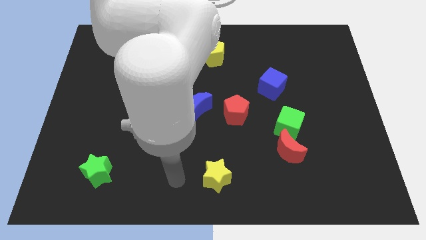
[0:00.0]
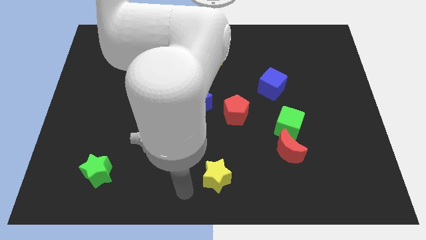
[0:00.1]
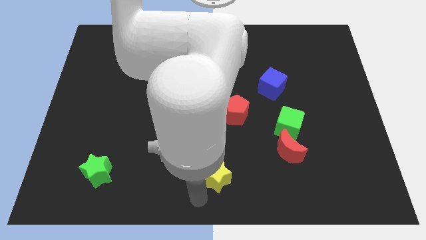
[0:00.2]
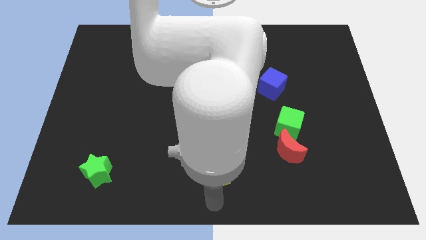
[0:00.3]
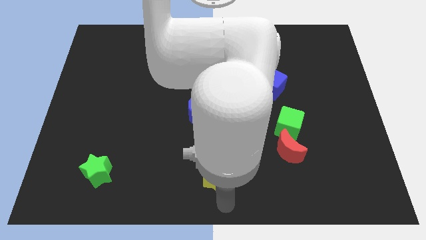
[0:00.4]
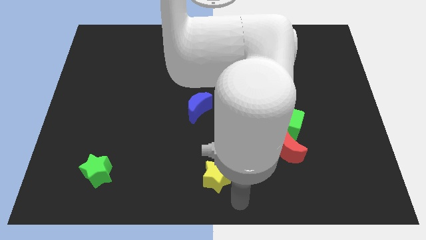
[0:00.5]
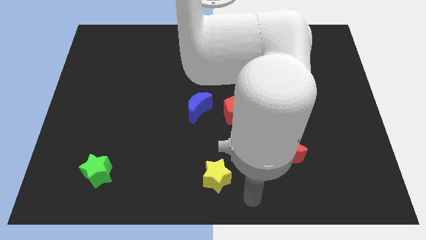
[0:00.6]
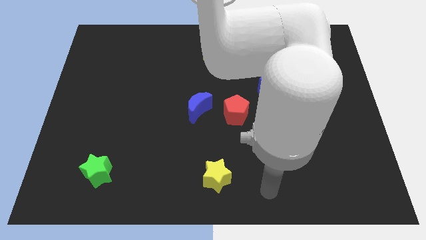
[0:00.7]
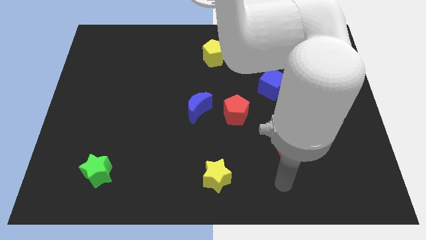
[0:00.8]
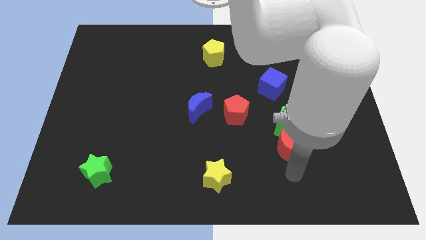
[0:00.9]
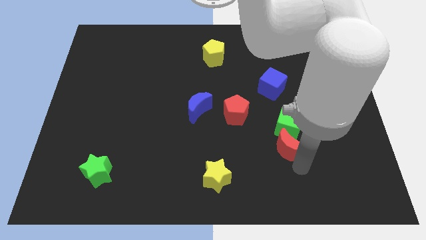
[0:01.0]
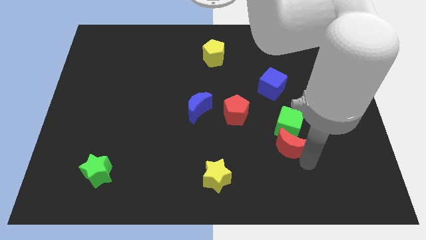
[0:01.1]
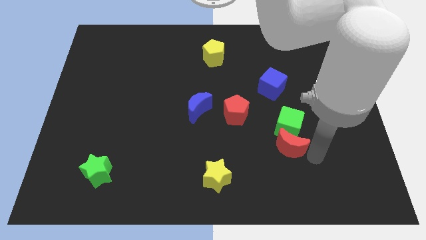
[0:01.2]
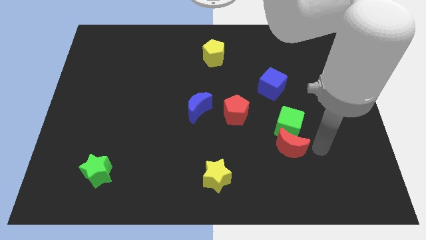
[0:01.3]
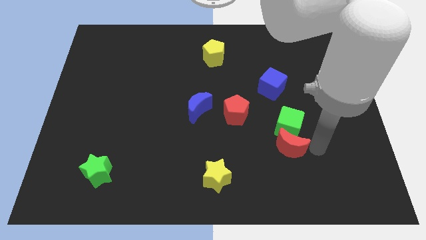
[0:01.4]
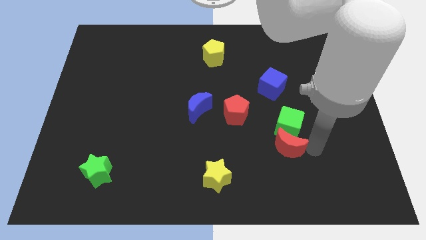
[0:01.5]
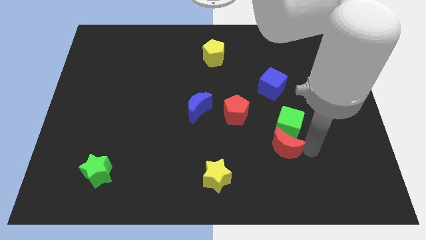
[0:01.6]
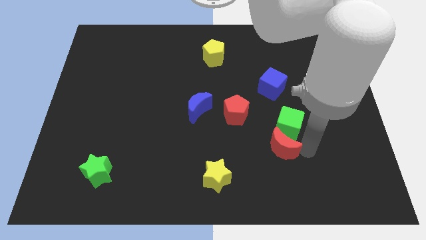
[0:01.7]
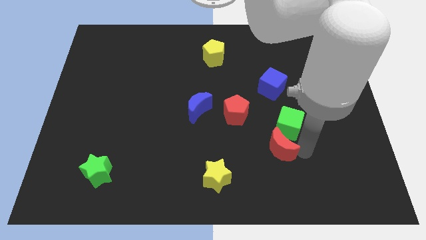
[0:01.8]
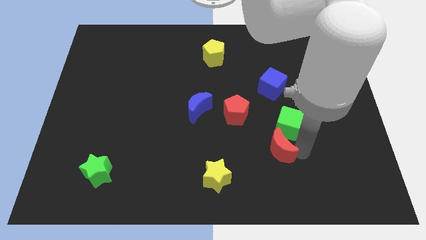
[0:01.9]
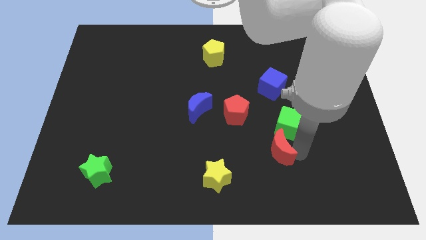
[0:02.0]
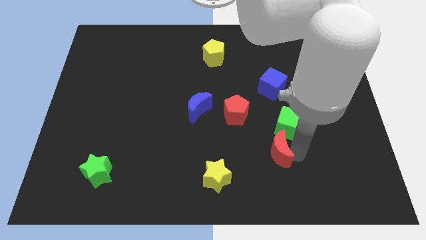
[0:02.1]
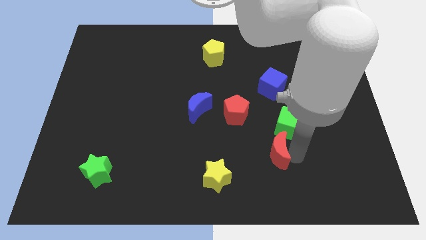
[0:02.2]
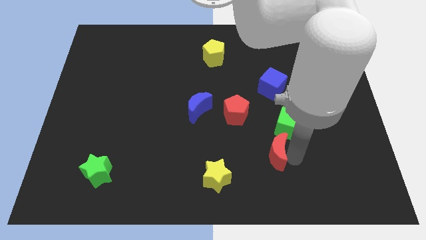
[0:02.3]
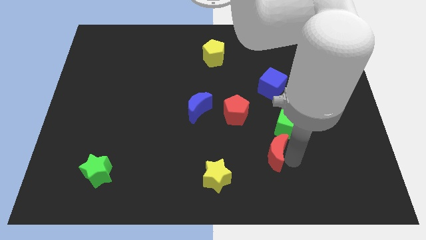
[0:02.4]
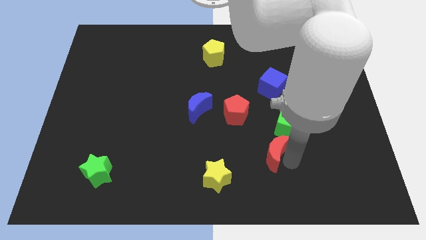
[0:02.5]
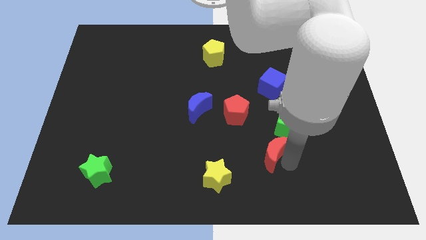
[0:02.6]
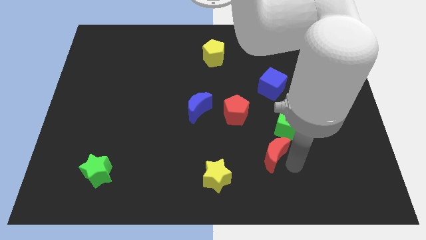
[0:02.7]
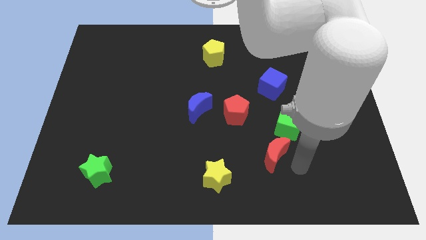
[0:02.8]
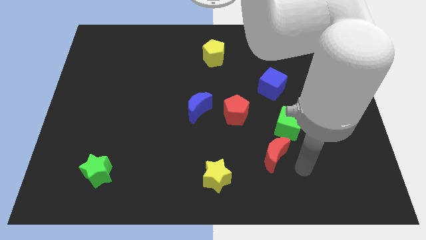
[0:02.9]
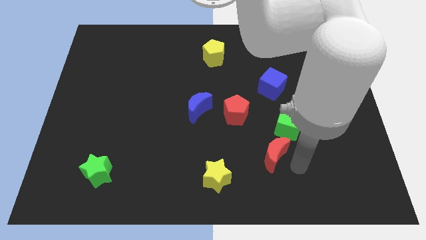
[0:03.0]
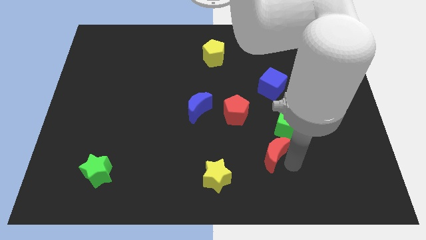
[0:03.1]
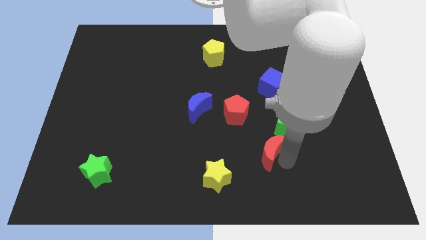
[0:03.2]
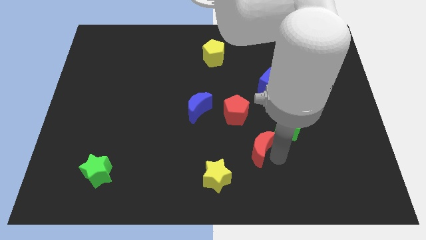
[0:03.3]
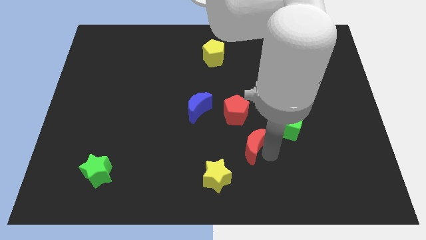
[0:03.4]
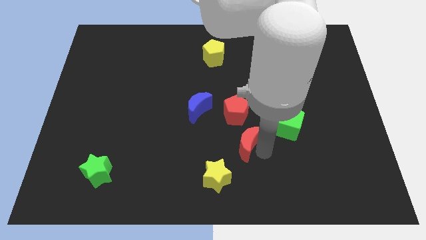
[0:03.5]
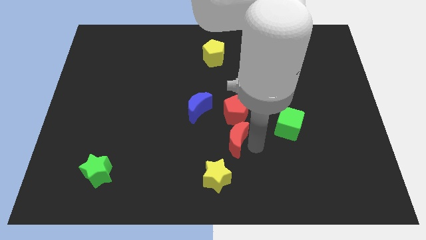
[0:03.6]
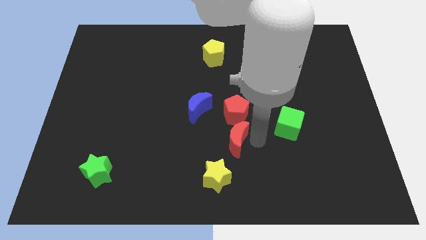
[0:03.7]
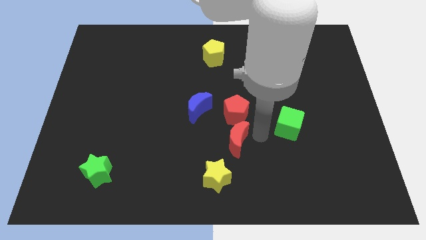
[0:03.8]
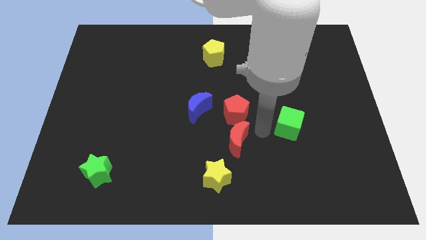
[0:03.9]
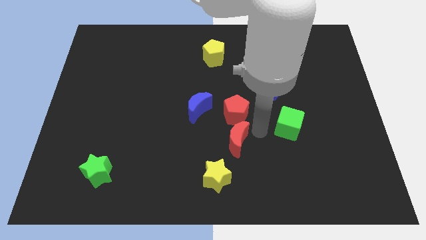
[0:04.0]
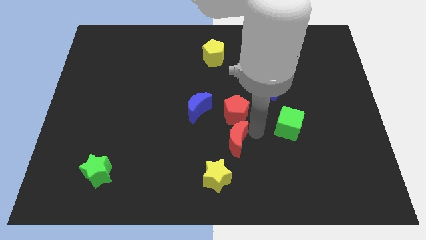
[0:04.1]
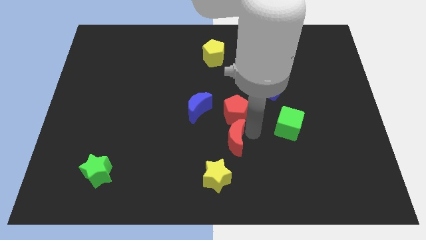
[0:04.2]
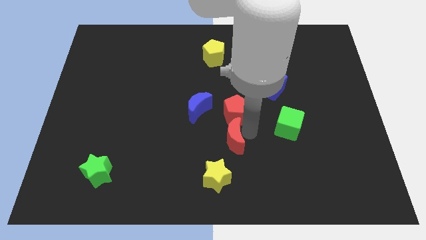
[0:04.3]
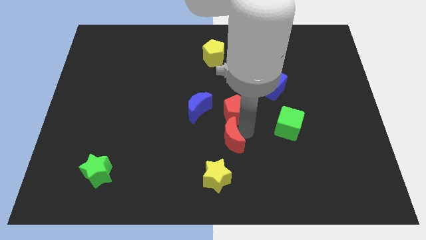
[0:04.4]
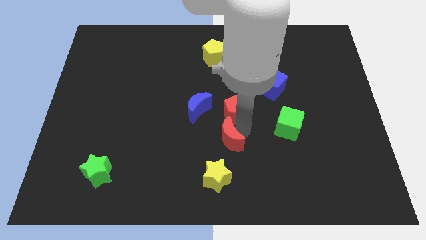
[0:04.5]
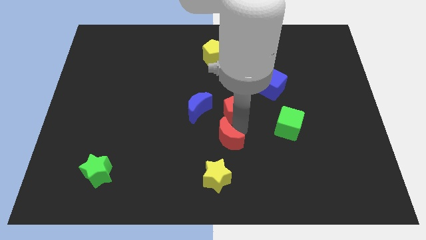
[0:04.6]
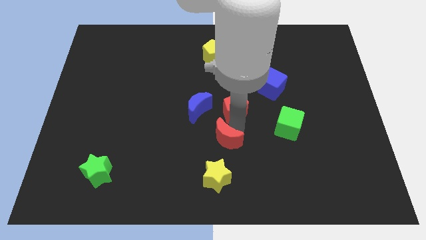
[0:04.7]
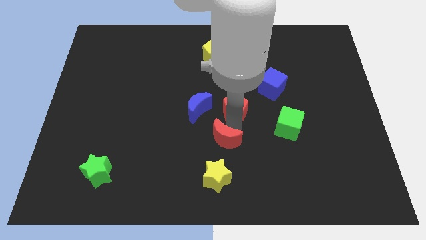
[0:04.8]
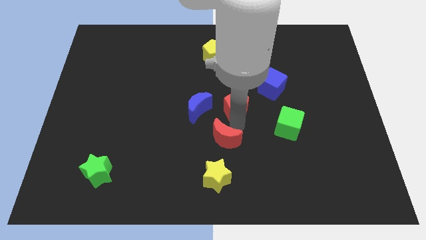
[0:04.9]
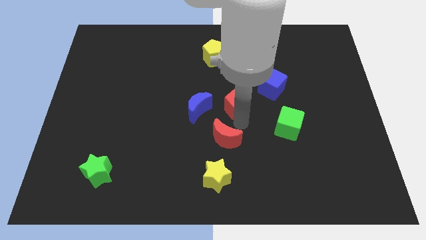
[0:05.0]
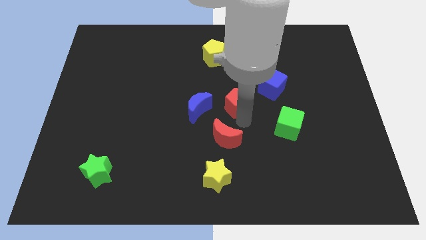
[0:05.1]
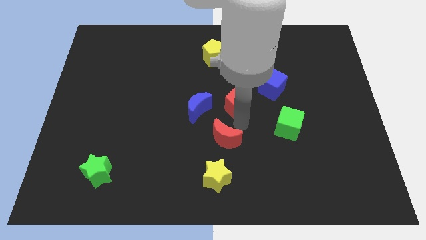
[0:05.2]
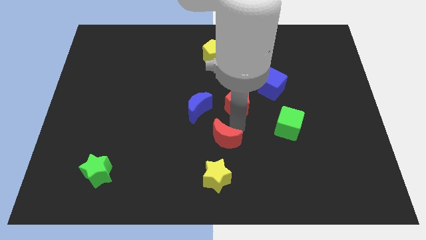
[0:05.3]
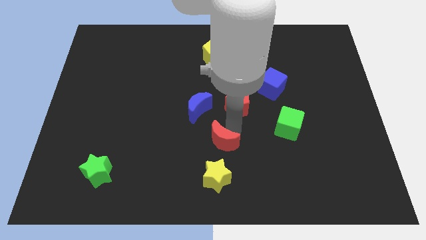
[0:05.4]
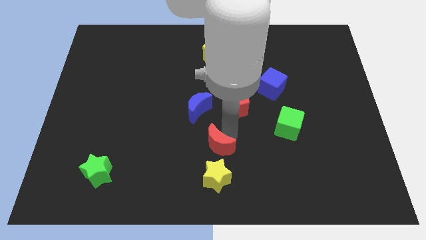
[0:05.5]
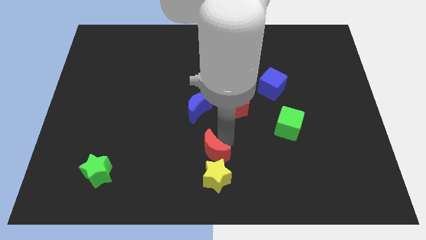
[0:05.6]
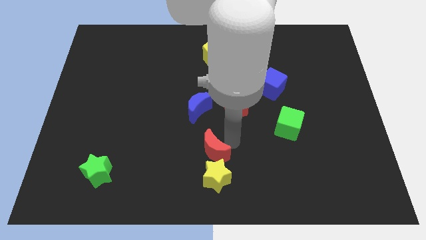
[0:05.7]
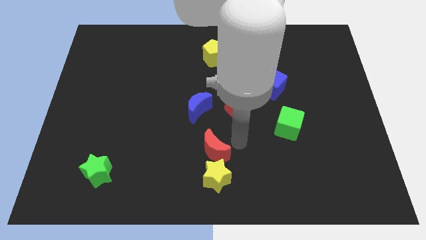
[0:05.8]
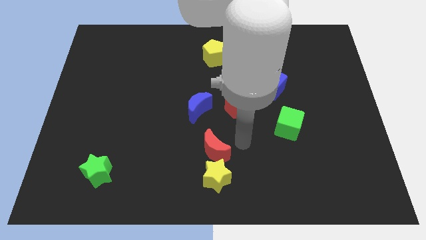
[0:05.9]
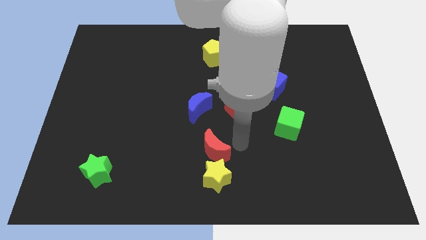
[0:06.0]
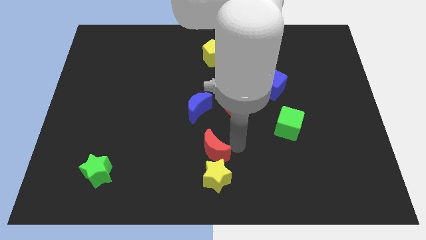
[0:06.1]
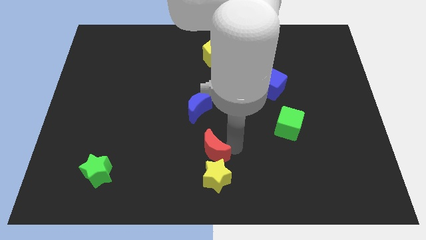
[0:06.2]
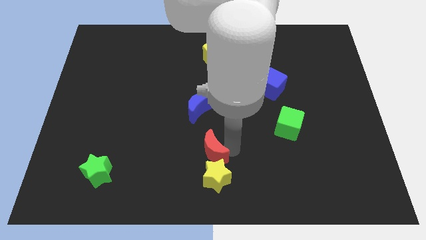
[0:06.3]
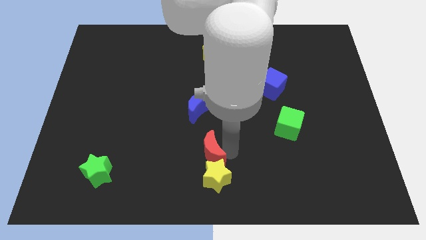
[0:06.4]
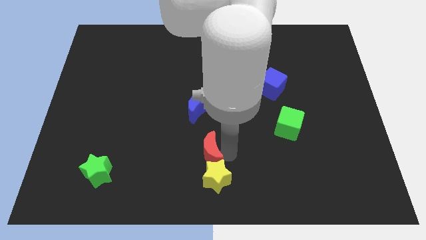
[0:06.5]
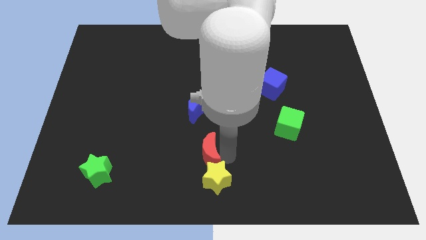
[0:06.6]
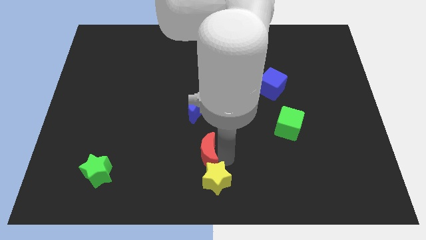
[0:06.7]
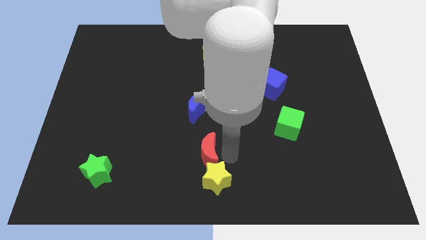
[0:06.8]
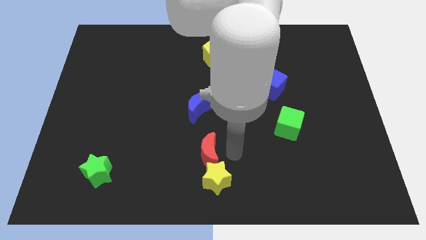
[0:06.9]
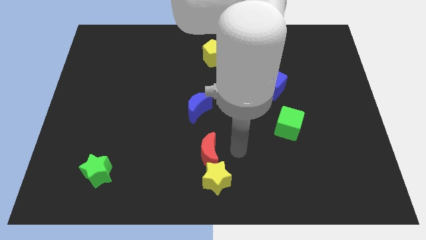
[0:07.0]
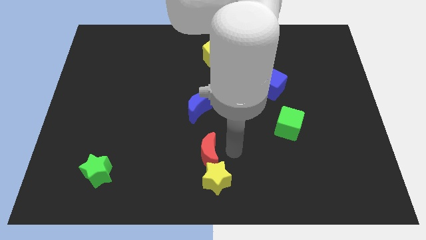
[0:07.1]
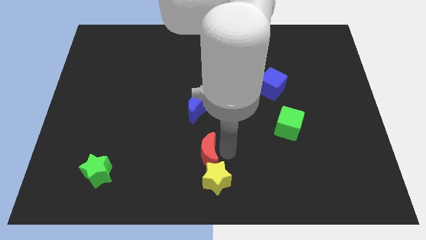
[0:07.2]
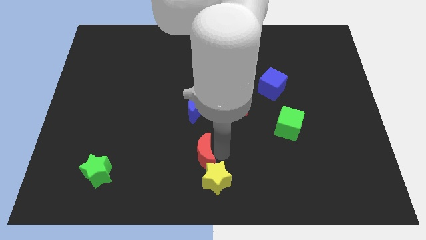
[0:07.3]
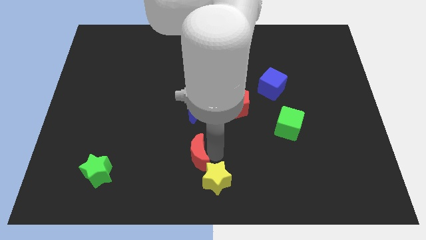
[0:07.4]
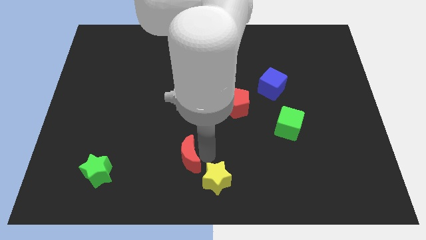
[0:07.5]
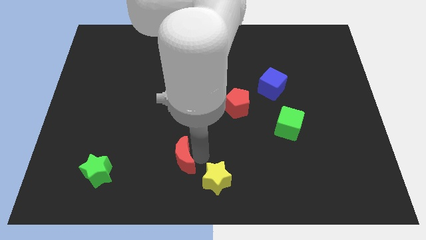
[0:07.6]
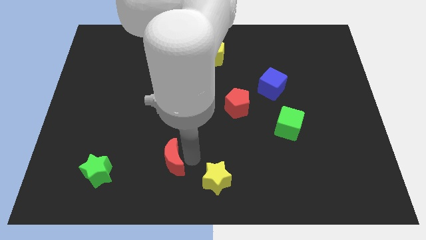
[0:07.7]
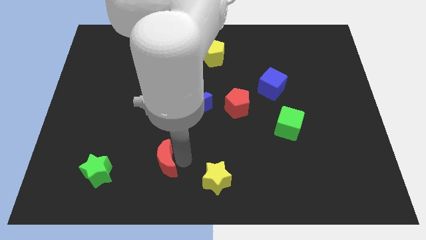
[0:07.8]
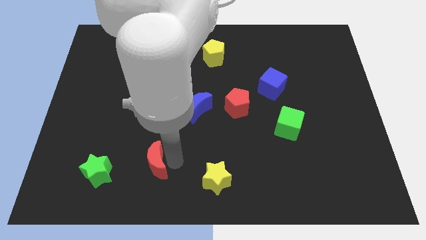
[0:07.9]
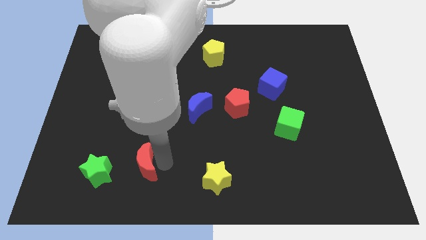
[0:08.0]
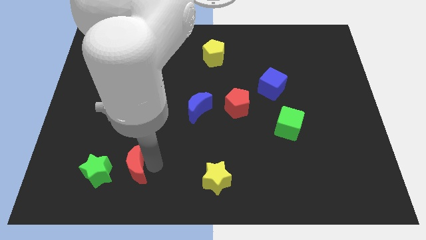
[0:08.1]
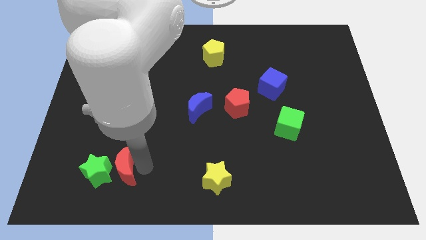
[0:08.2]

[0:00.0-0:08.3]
put the red moon next to the green star
